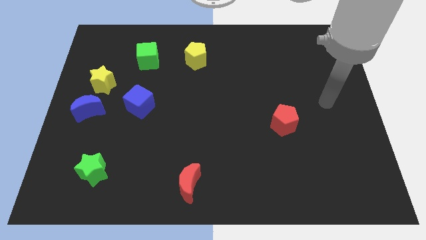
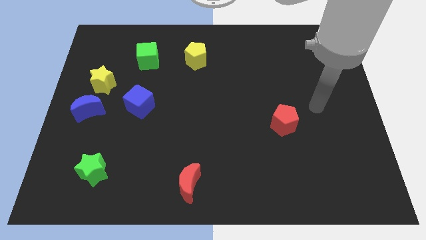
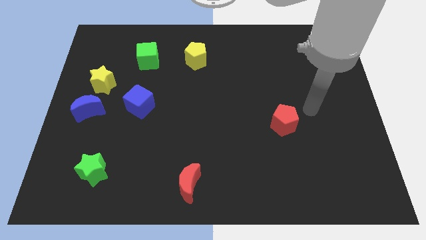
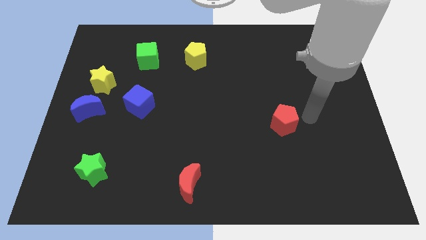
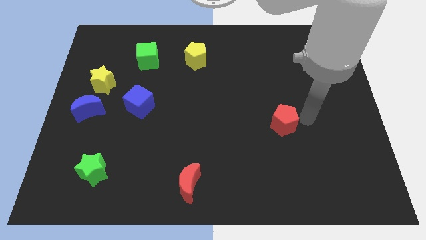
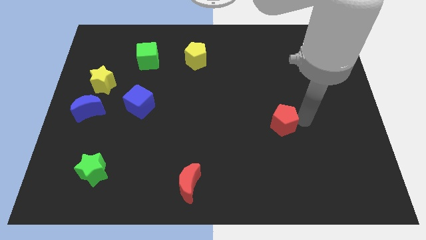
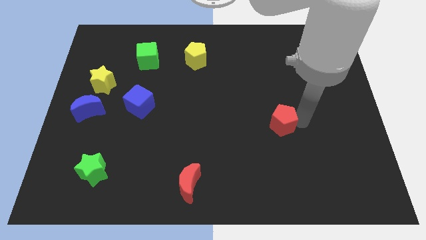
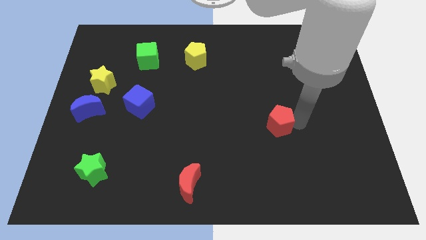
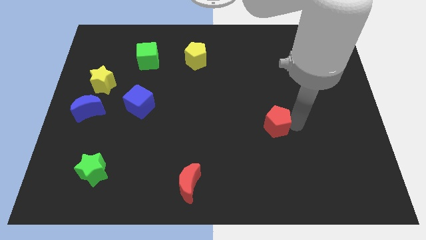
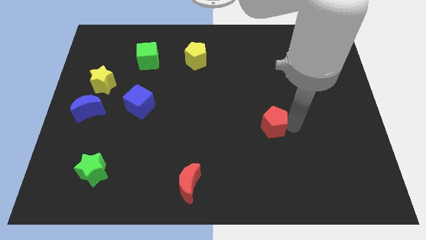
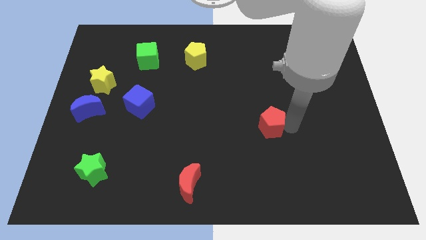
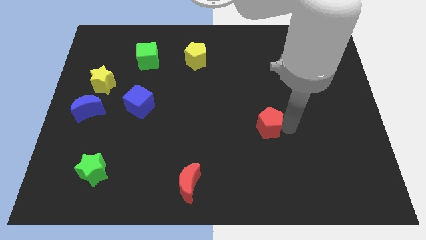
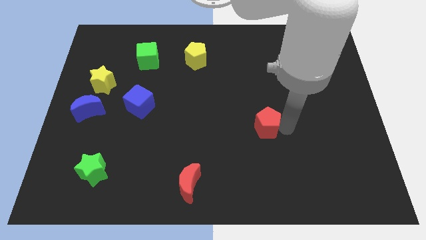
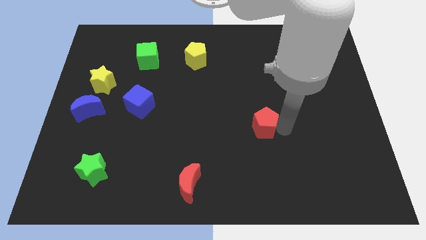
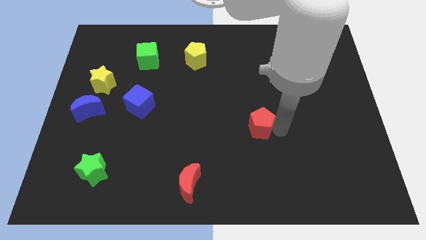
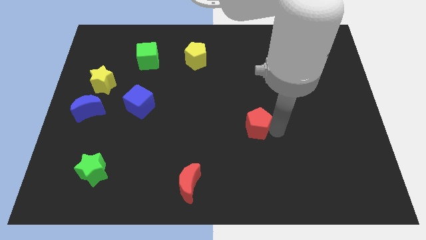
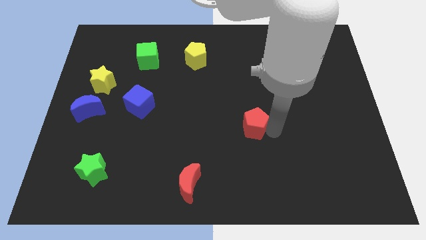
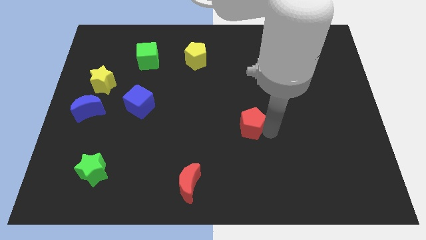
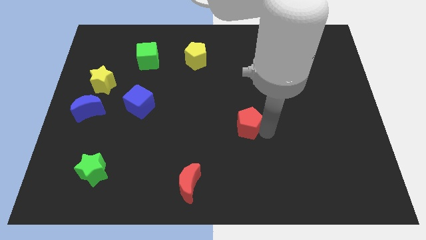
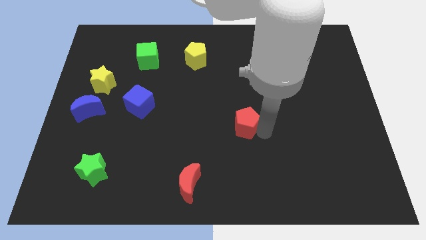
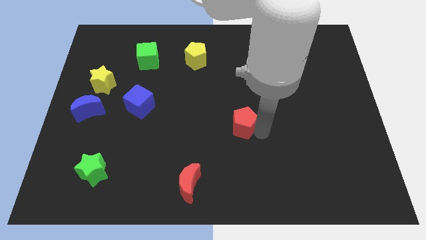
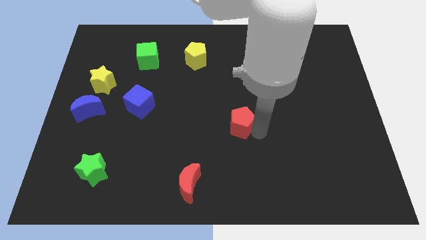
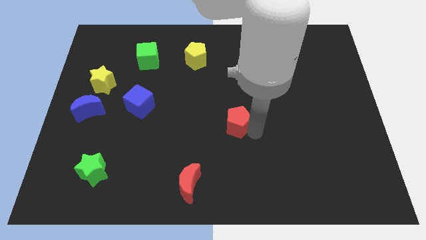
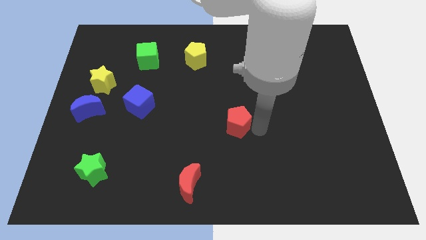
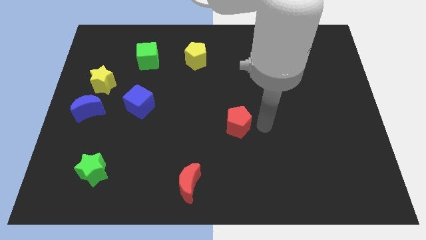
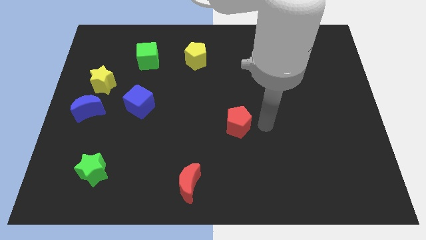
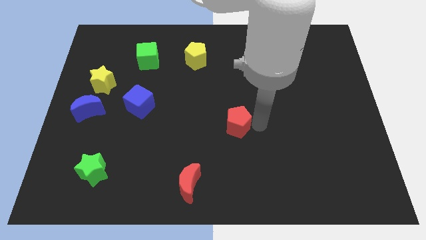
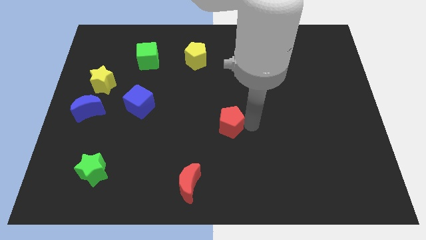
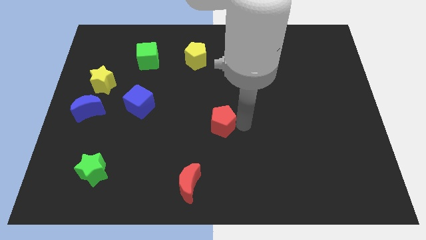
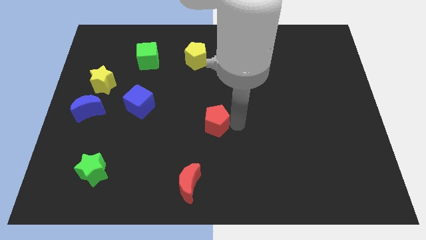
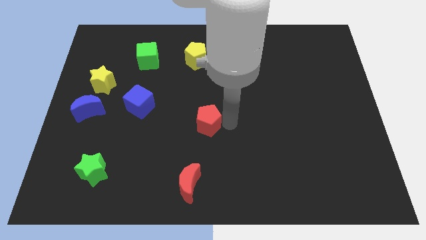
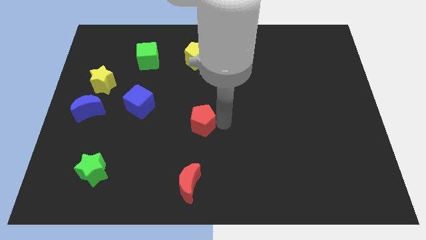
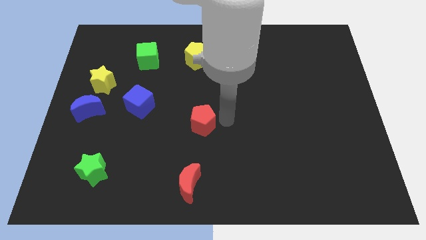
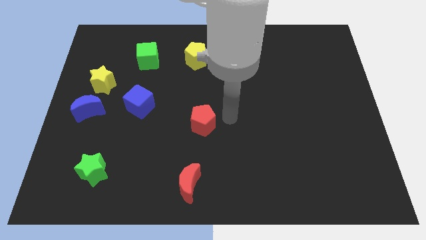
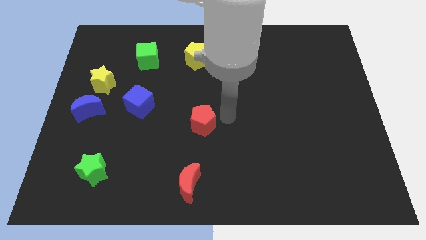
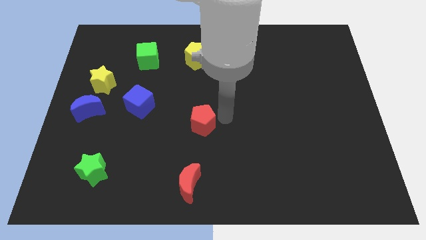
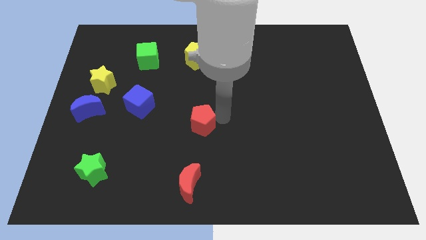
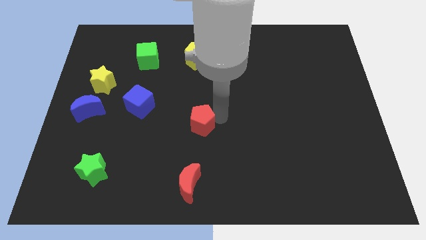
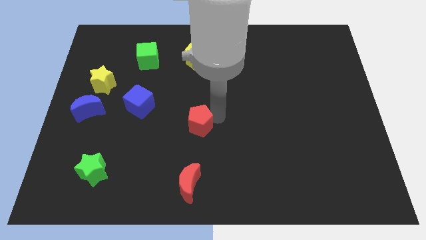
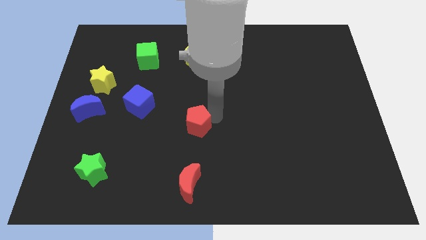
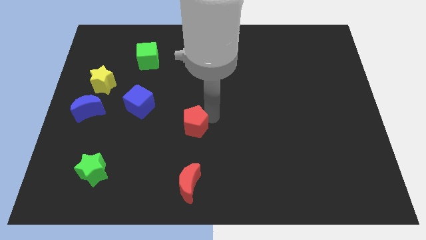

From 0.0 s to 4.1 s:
slide the red pentagon left

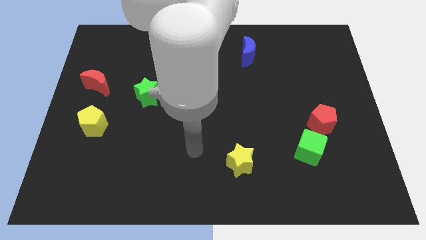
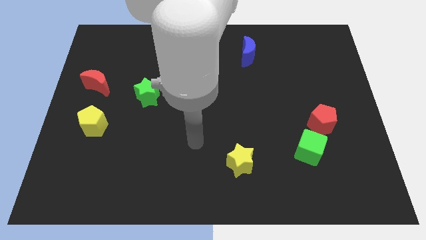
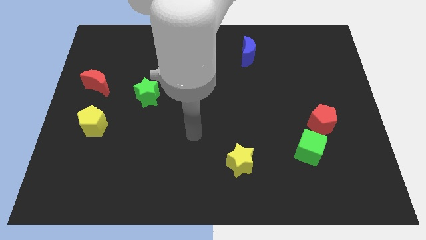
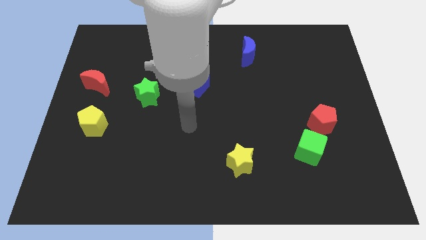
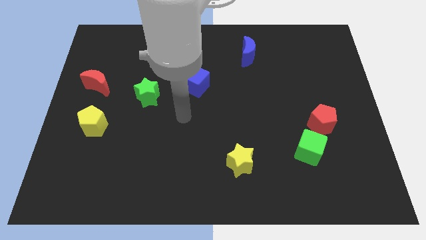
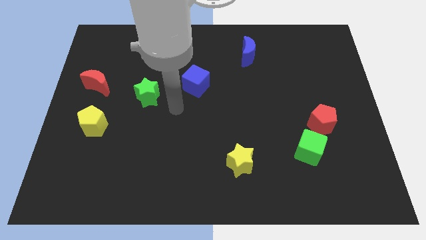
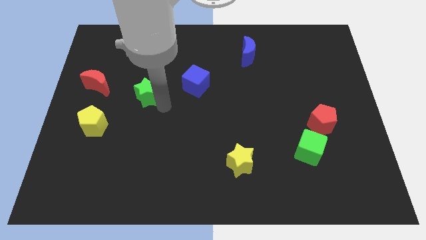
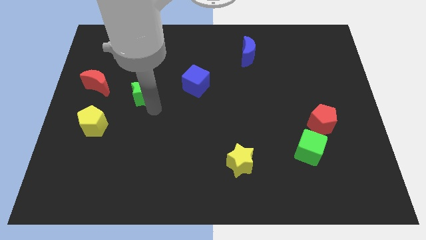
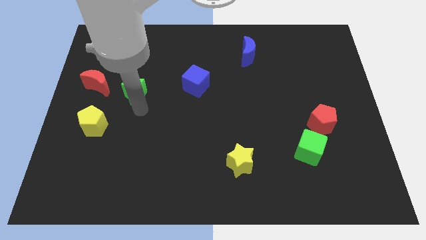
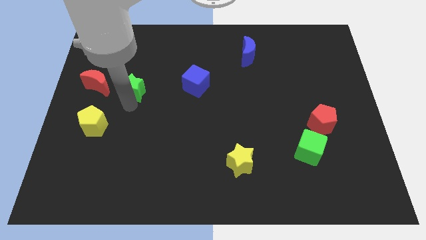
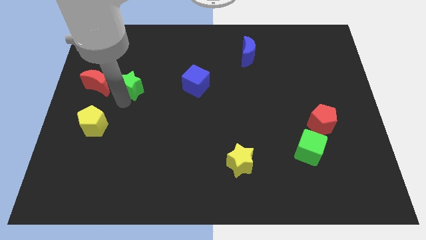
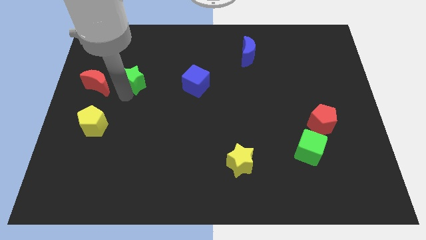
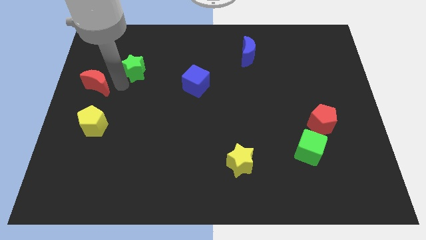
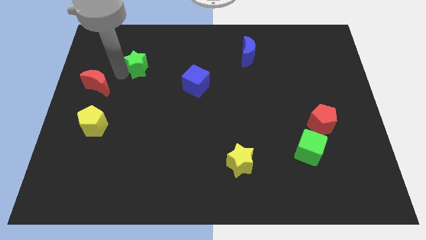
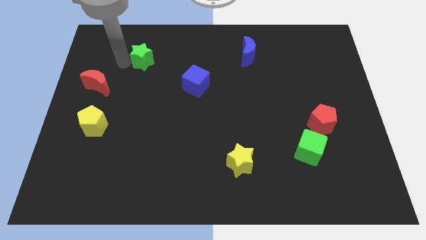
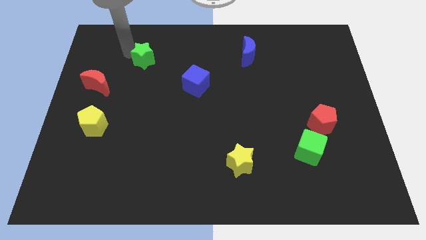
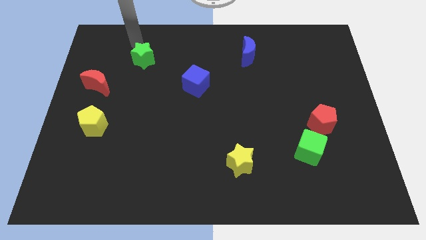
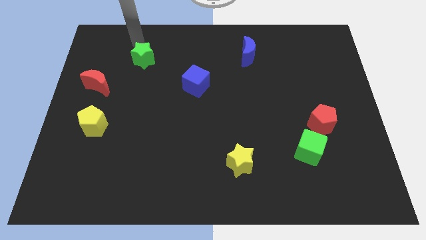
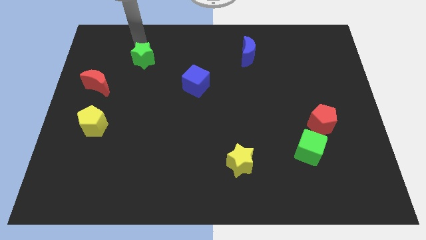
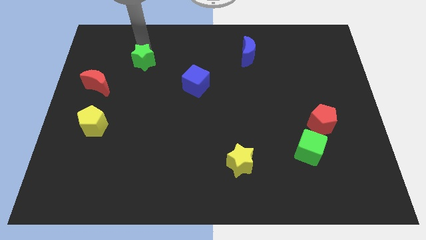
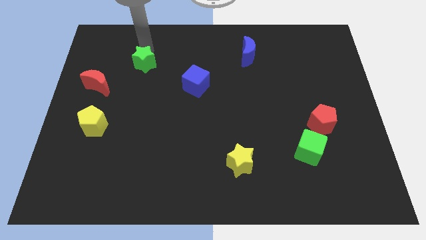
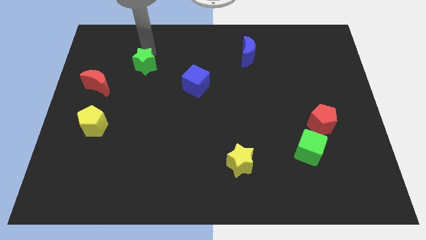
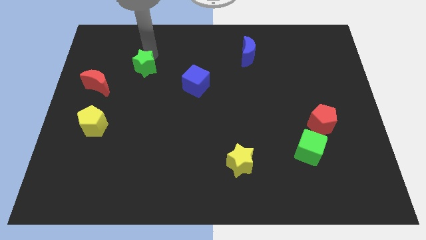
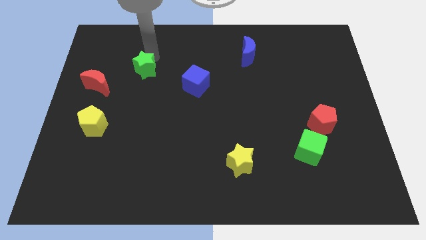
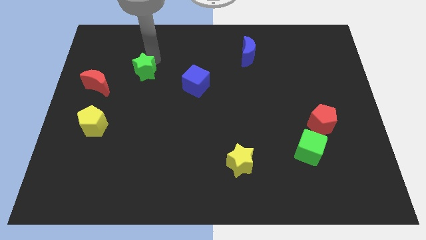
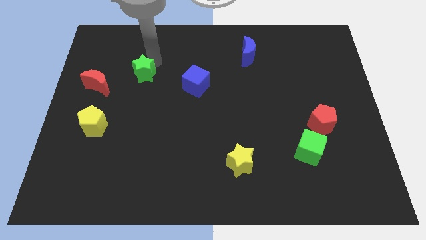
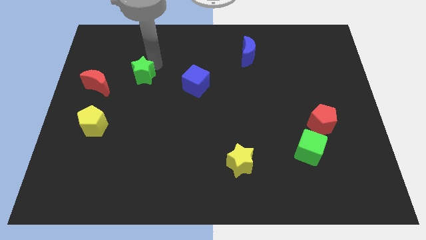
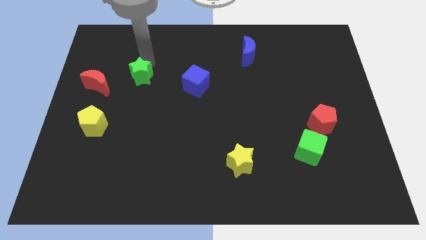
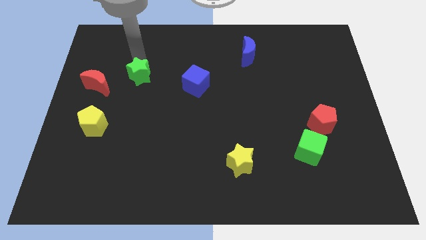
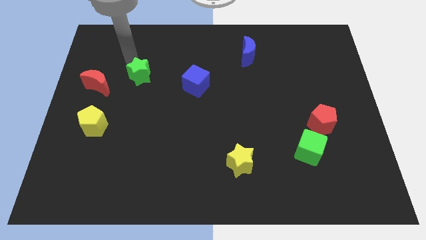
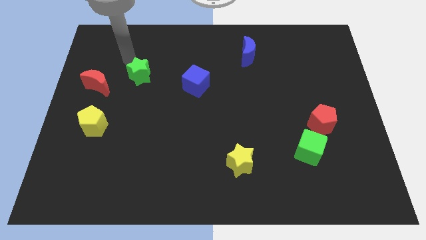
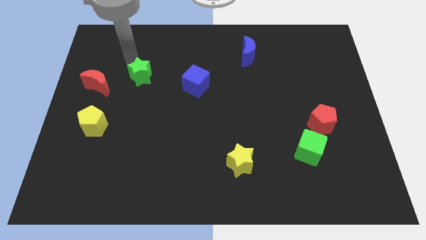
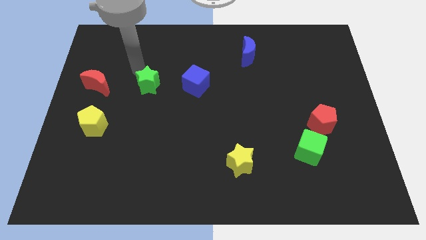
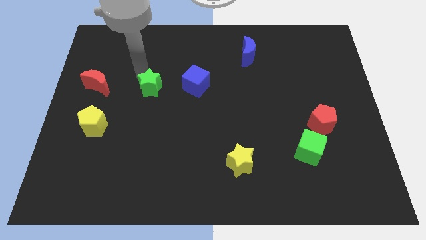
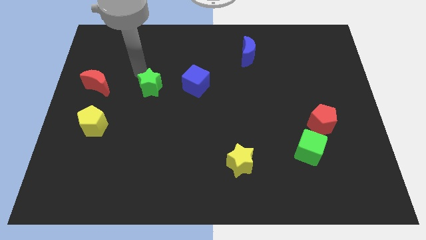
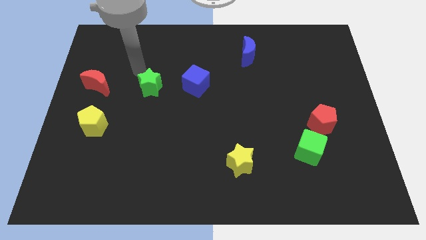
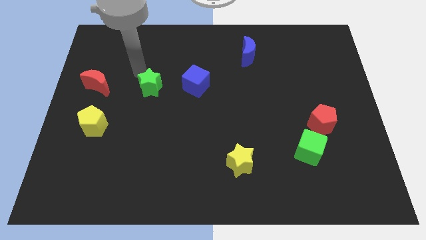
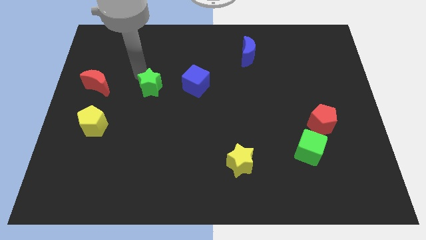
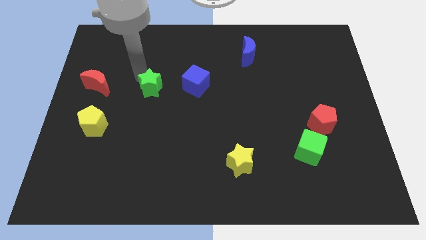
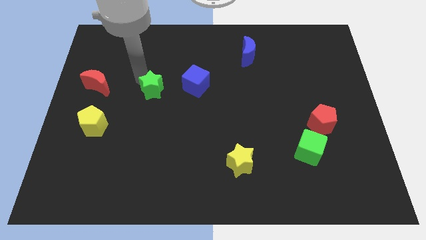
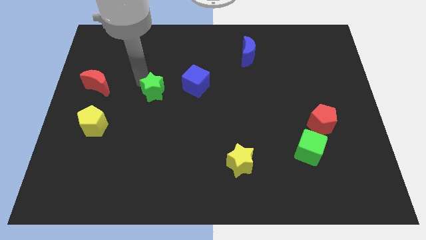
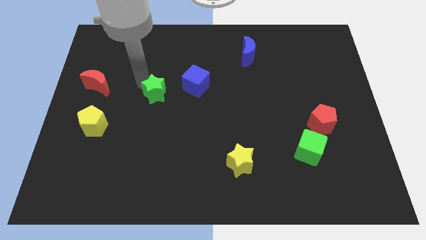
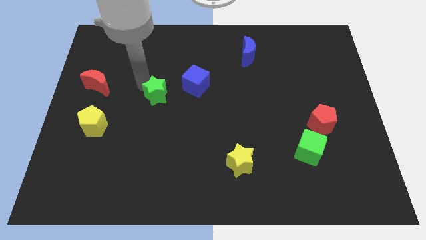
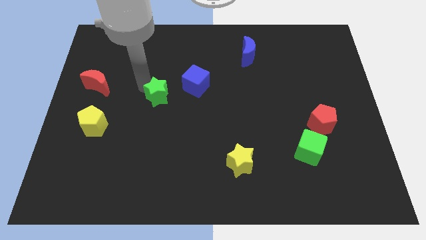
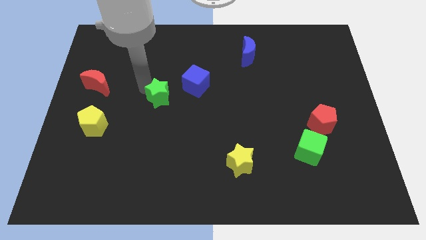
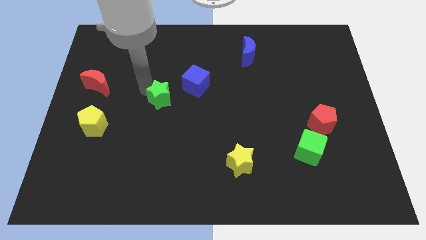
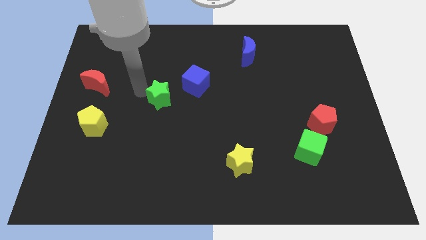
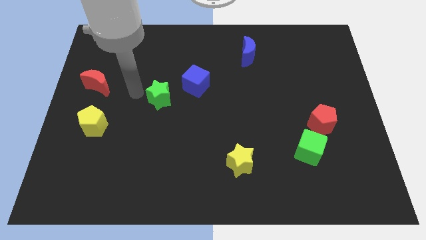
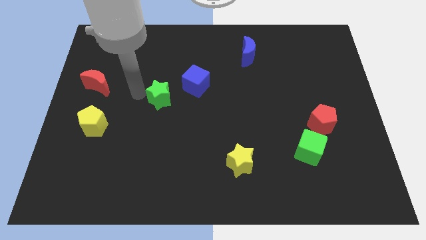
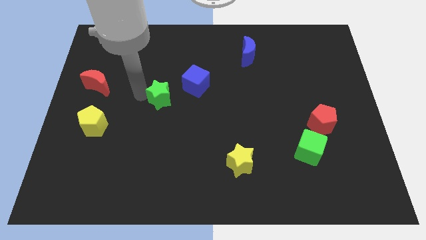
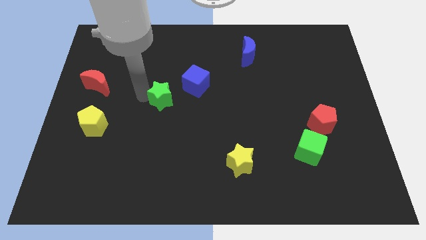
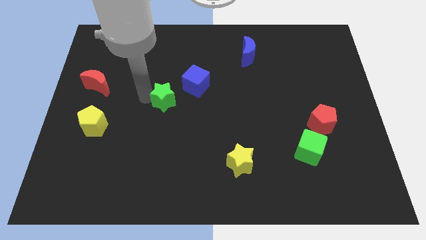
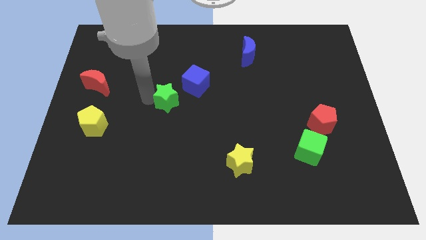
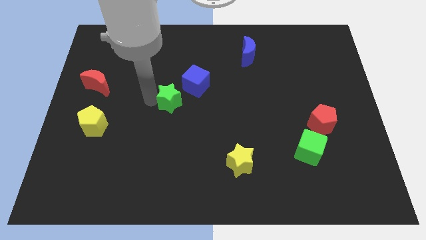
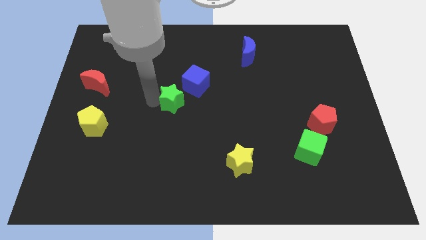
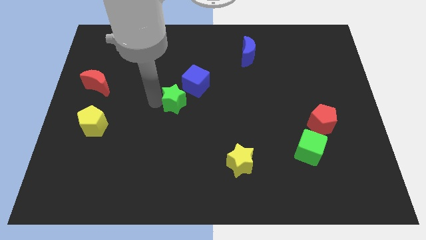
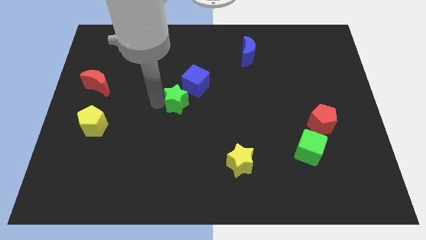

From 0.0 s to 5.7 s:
slide the green star to the right somewhat
